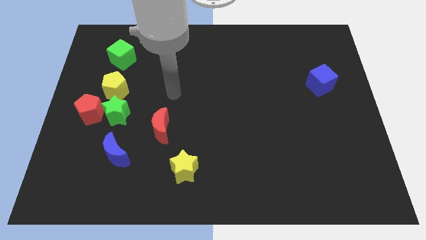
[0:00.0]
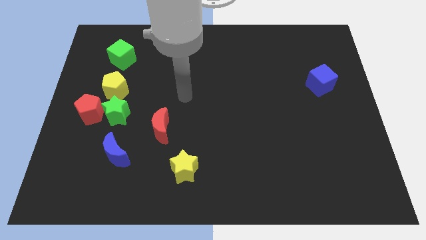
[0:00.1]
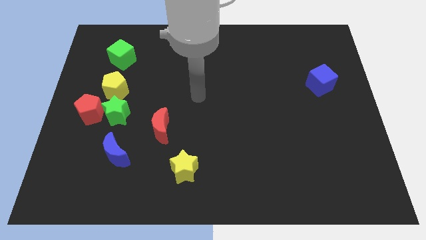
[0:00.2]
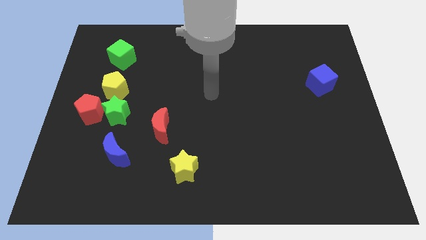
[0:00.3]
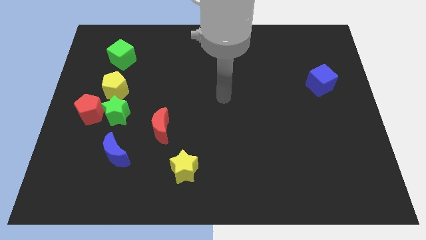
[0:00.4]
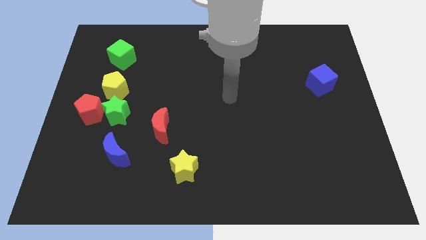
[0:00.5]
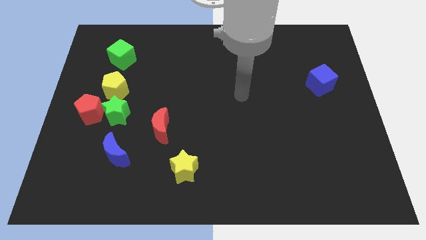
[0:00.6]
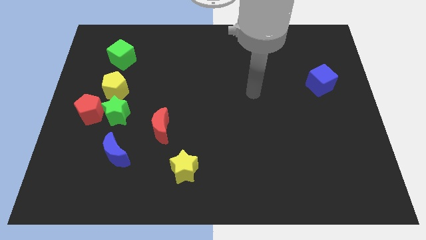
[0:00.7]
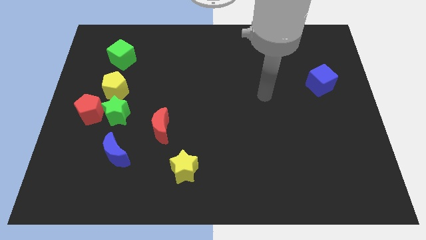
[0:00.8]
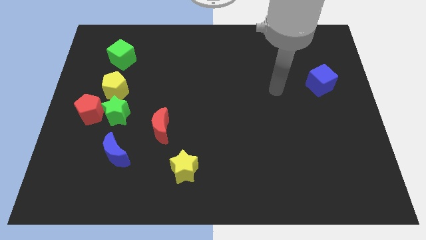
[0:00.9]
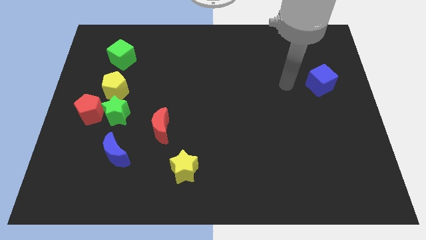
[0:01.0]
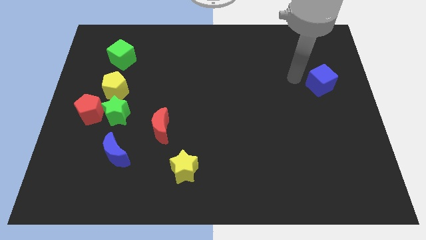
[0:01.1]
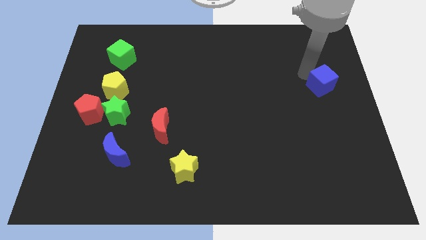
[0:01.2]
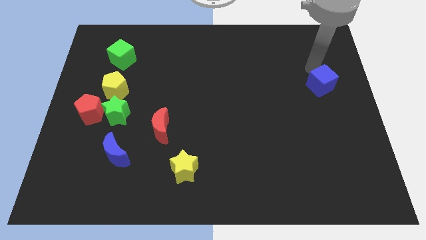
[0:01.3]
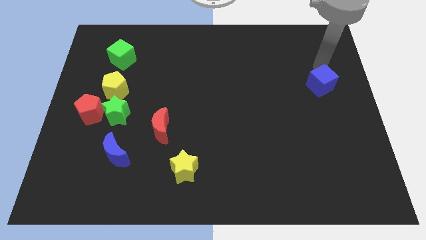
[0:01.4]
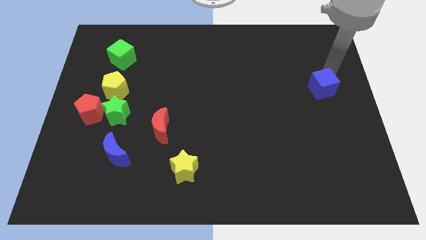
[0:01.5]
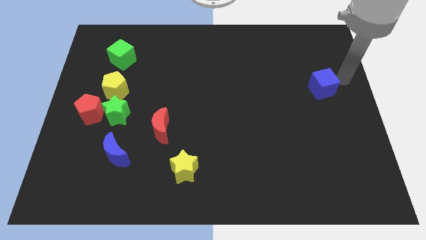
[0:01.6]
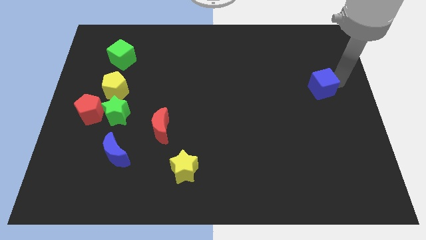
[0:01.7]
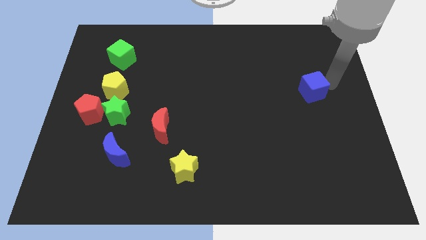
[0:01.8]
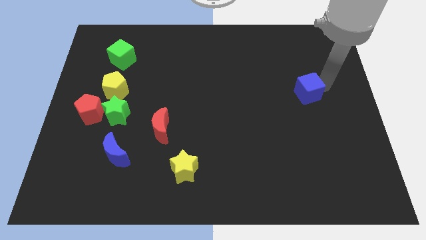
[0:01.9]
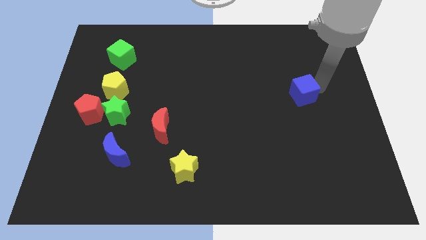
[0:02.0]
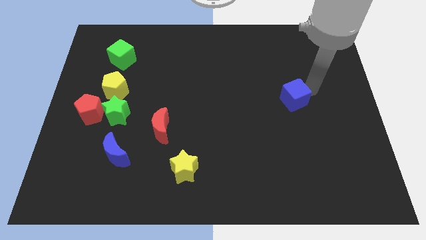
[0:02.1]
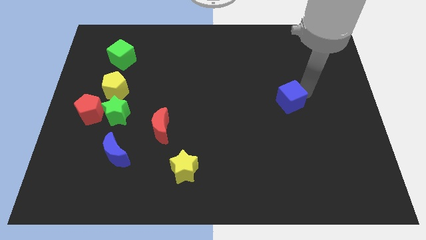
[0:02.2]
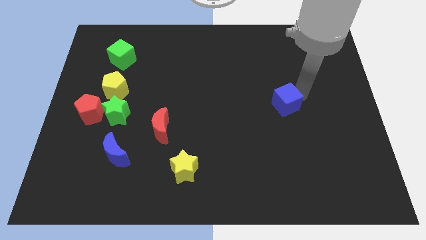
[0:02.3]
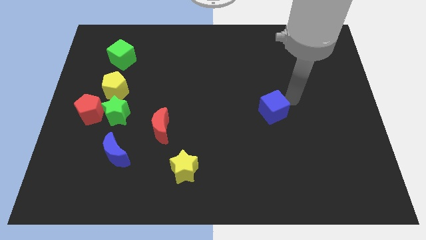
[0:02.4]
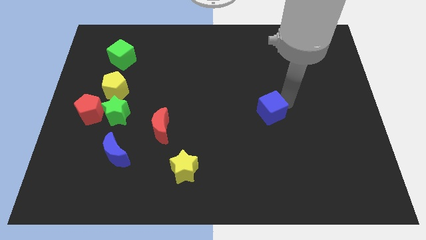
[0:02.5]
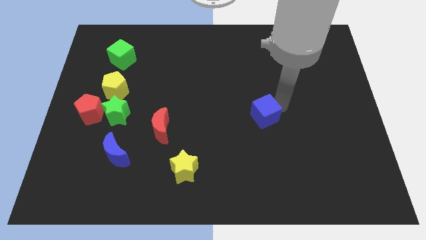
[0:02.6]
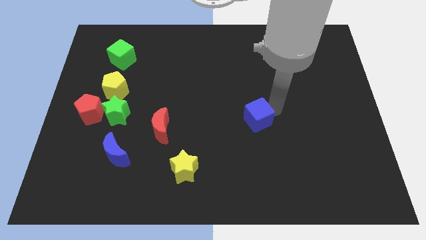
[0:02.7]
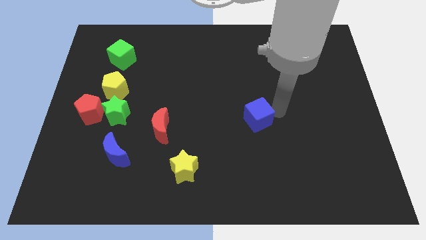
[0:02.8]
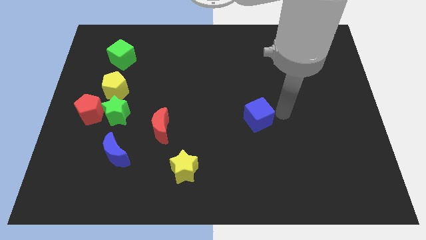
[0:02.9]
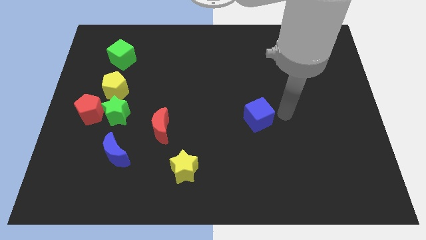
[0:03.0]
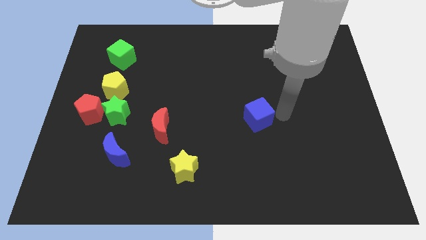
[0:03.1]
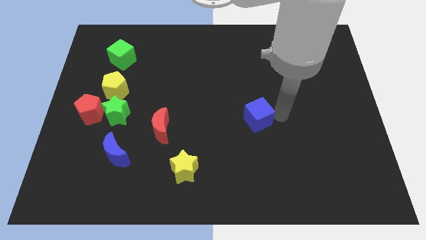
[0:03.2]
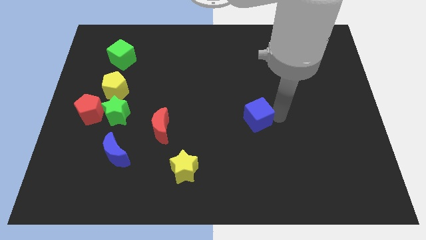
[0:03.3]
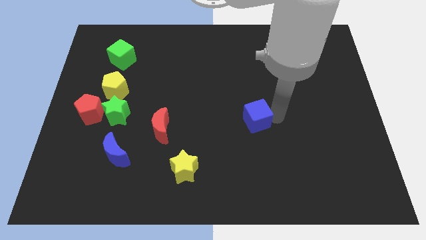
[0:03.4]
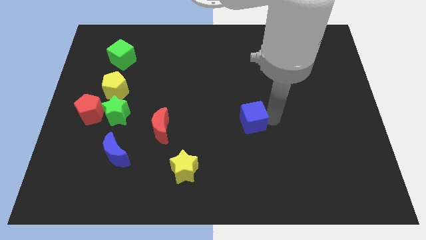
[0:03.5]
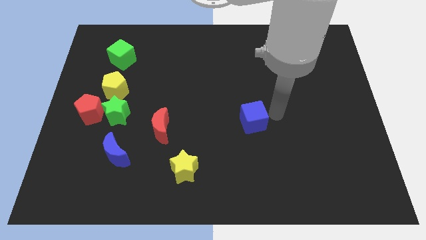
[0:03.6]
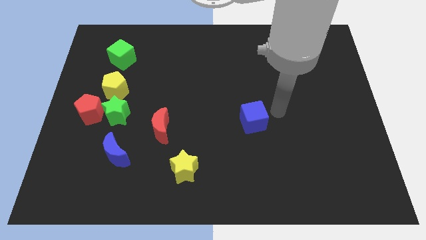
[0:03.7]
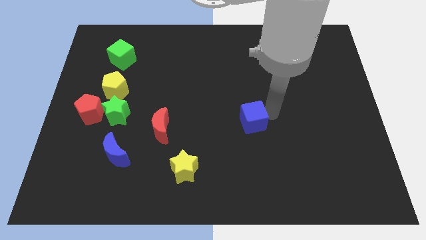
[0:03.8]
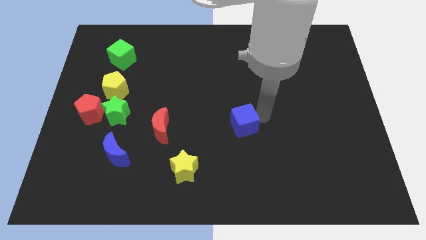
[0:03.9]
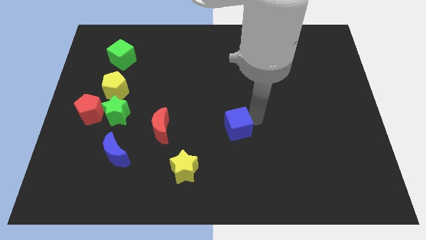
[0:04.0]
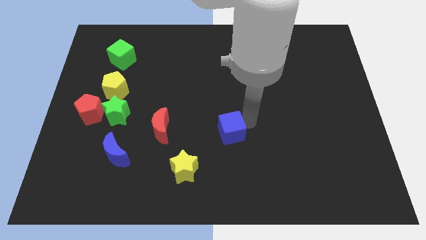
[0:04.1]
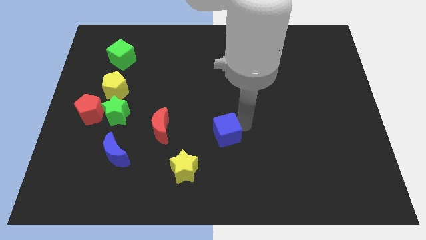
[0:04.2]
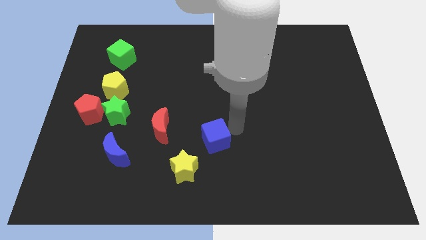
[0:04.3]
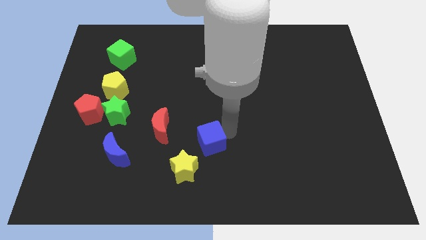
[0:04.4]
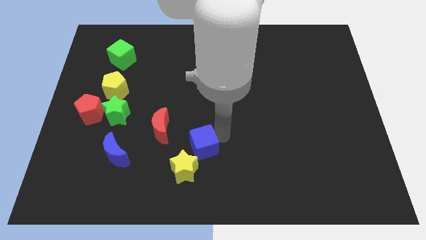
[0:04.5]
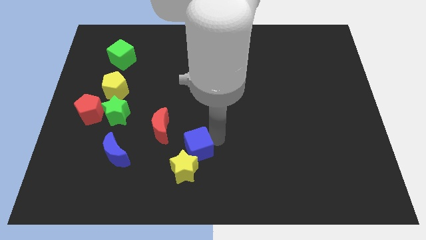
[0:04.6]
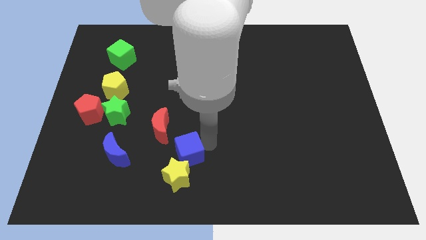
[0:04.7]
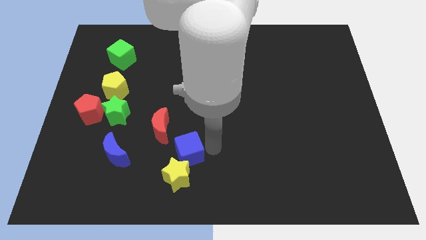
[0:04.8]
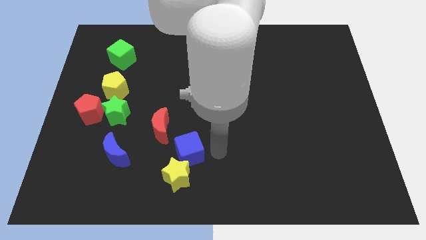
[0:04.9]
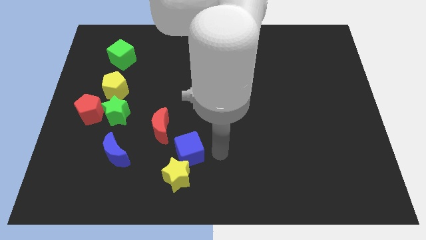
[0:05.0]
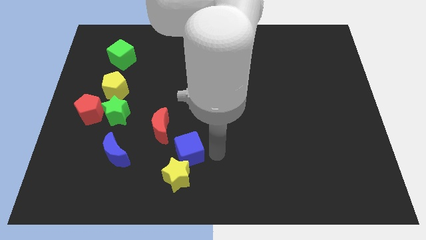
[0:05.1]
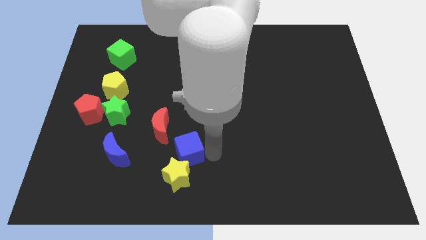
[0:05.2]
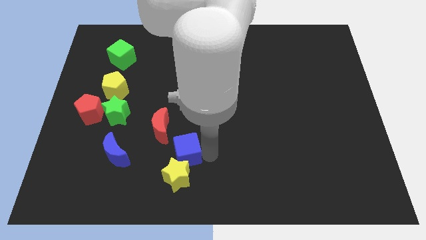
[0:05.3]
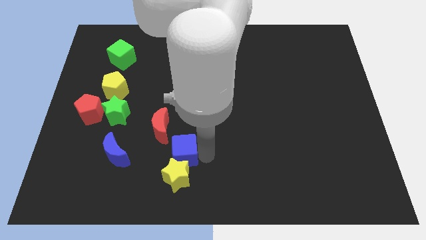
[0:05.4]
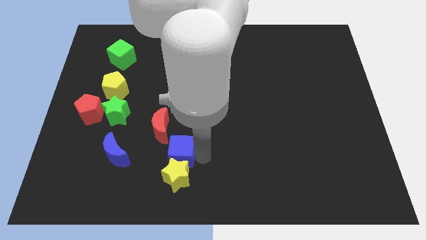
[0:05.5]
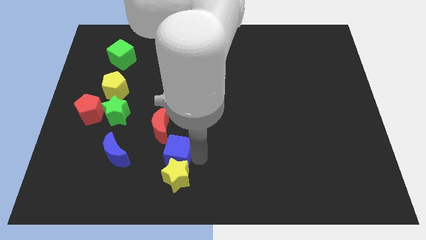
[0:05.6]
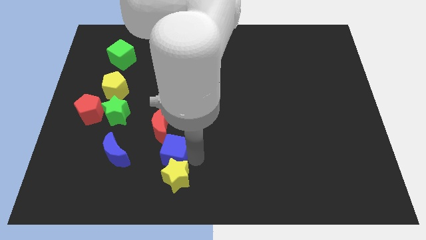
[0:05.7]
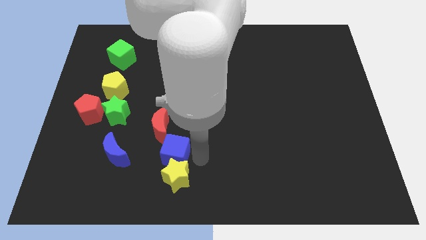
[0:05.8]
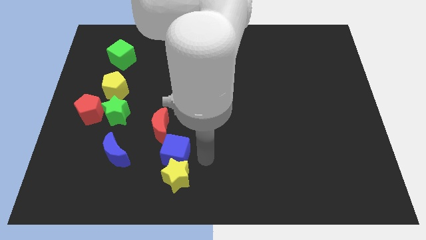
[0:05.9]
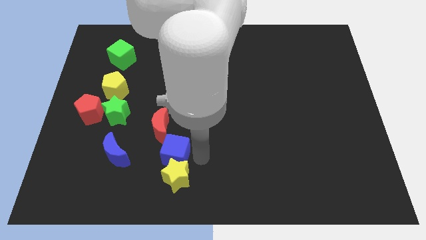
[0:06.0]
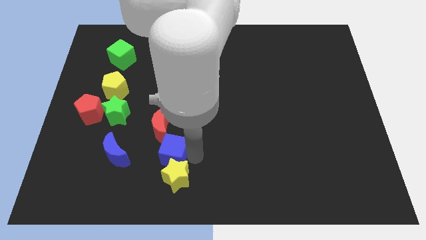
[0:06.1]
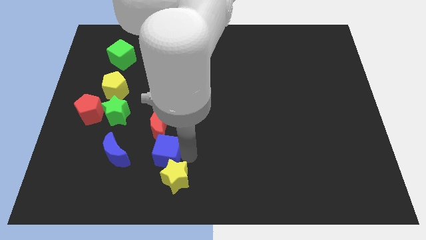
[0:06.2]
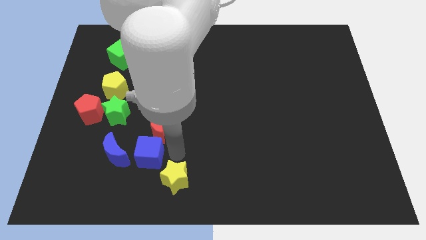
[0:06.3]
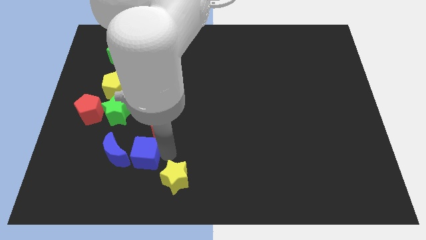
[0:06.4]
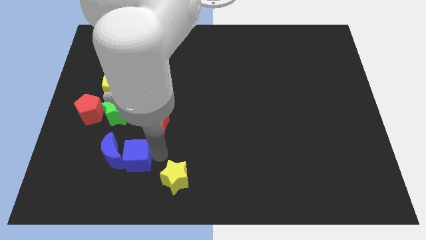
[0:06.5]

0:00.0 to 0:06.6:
put the blue cube close to the blue moon
